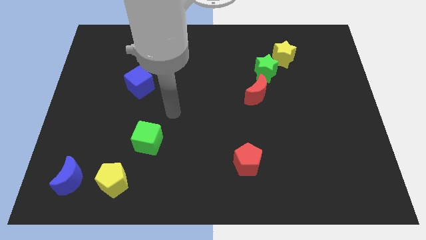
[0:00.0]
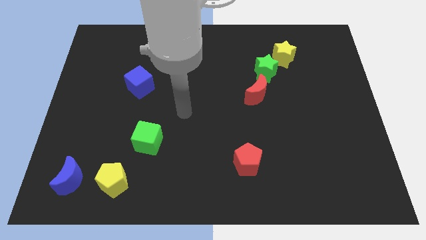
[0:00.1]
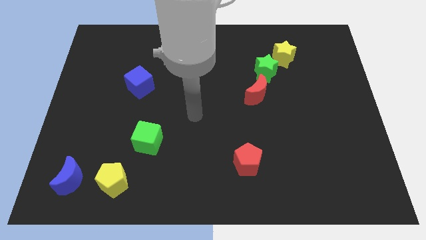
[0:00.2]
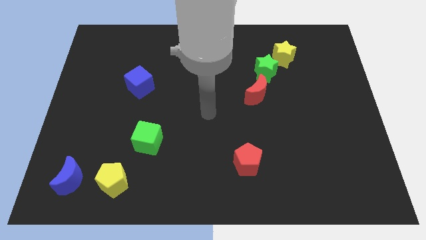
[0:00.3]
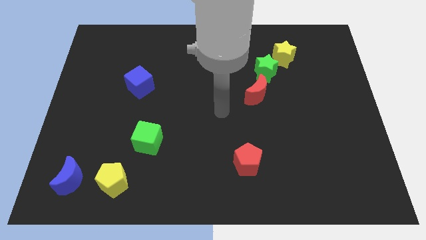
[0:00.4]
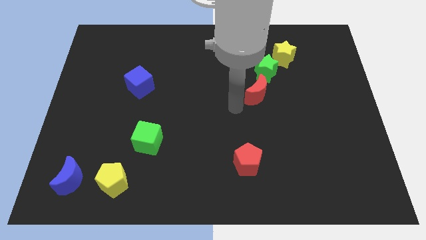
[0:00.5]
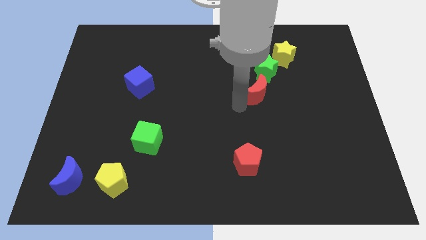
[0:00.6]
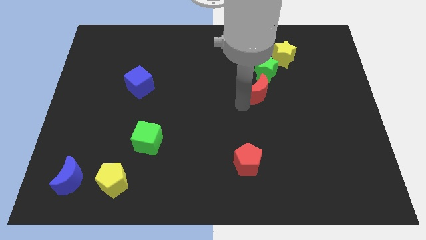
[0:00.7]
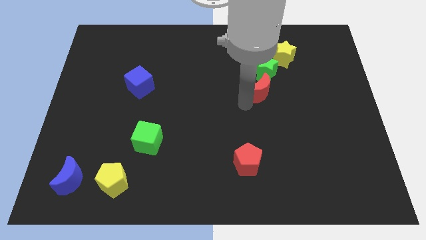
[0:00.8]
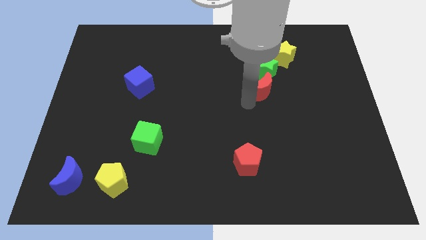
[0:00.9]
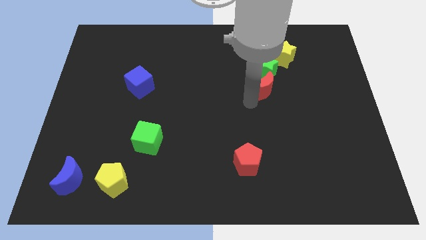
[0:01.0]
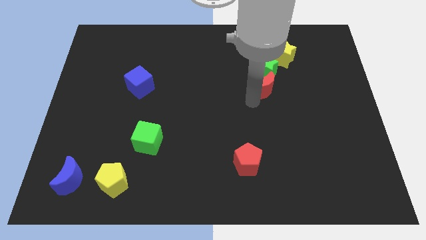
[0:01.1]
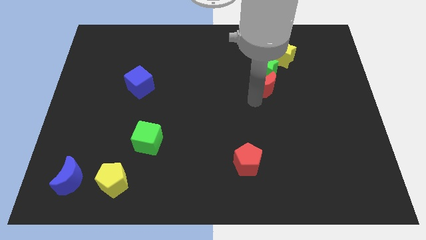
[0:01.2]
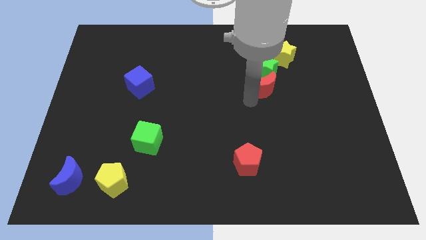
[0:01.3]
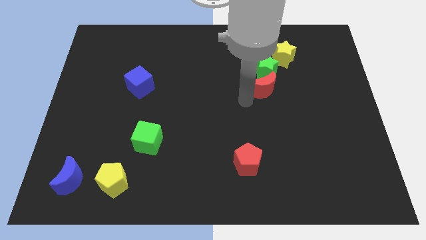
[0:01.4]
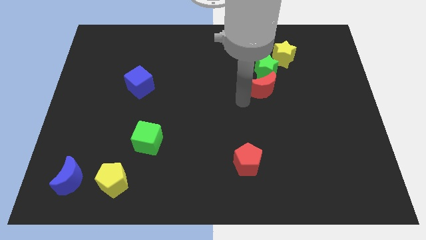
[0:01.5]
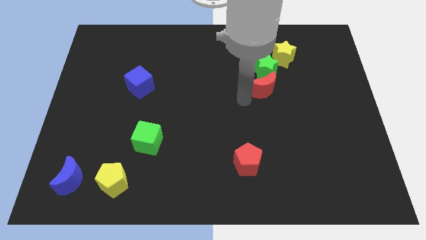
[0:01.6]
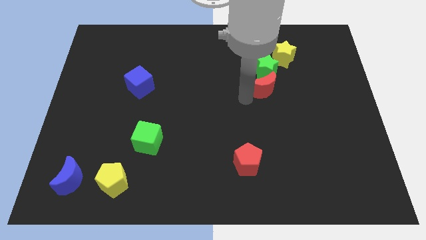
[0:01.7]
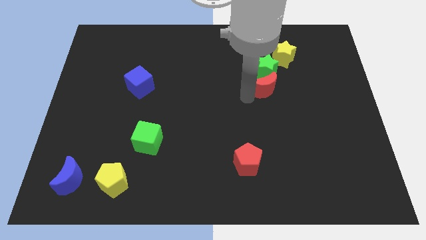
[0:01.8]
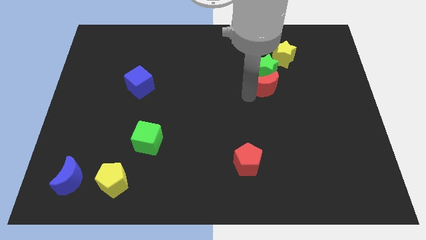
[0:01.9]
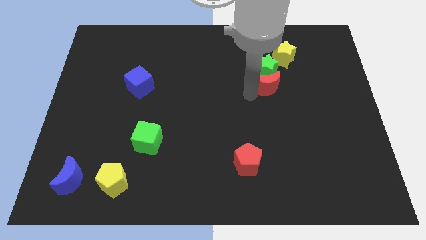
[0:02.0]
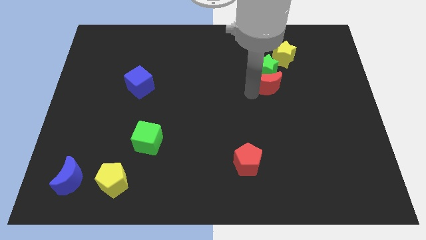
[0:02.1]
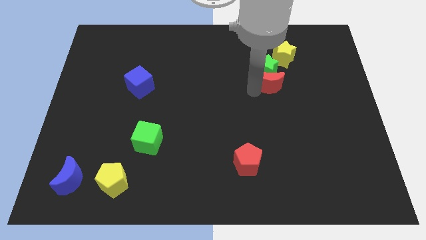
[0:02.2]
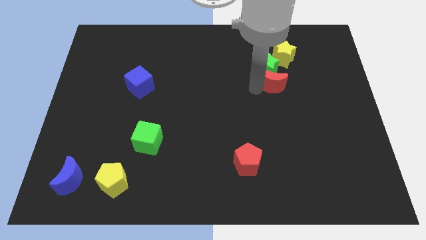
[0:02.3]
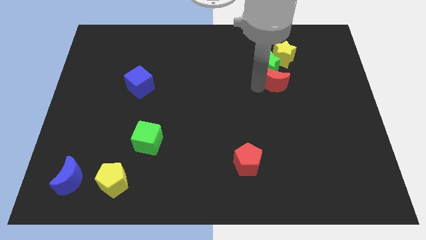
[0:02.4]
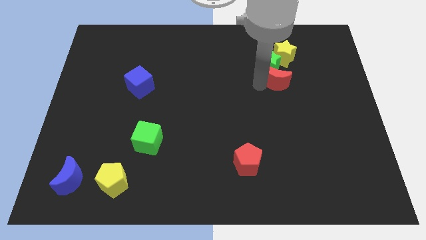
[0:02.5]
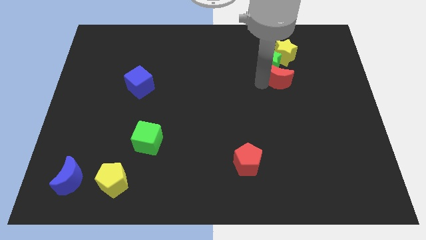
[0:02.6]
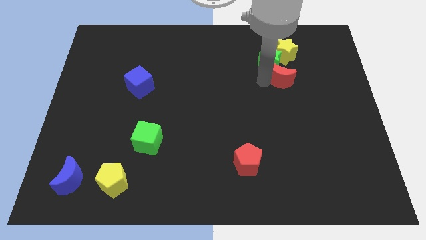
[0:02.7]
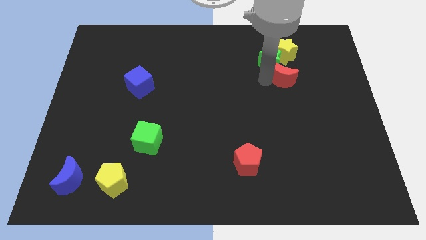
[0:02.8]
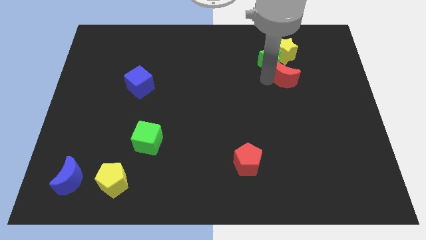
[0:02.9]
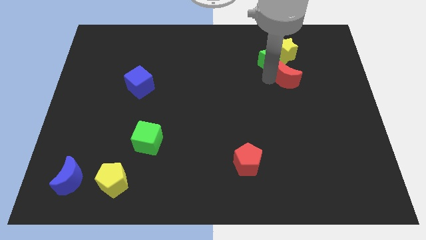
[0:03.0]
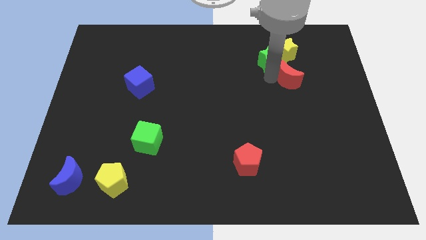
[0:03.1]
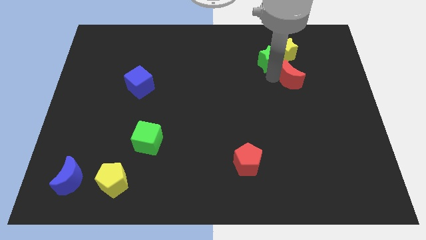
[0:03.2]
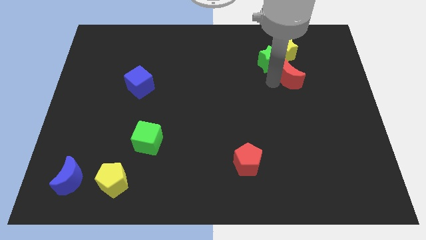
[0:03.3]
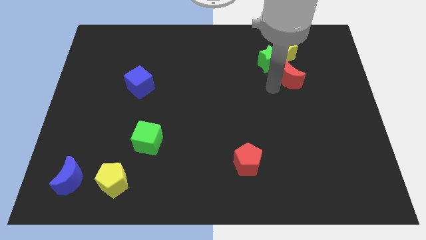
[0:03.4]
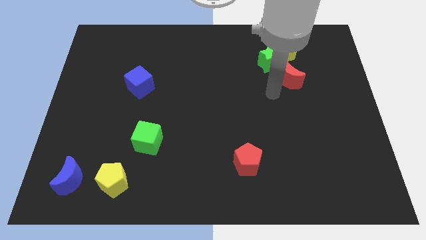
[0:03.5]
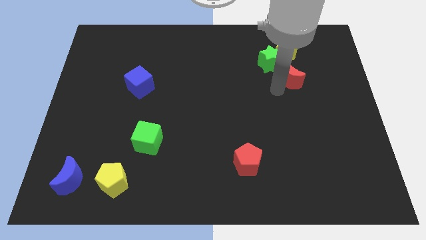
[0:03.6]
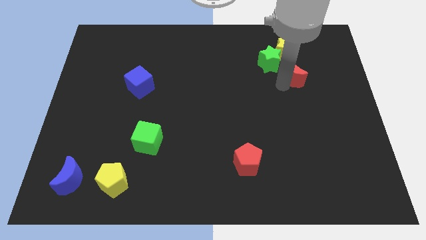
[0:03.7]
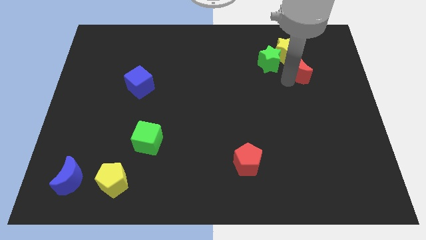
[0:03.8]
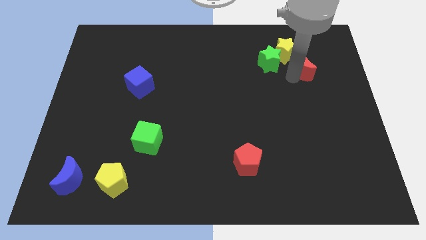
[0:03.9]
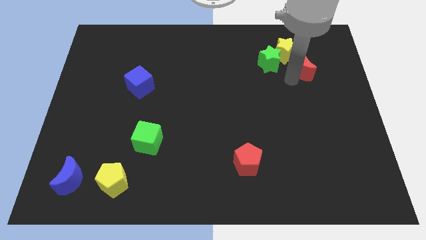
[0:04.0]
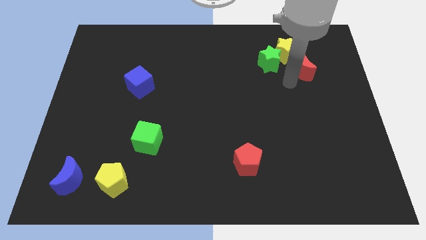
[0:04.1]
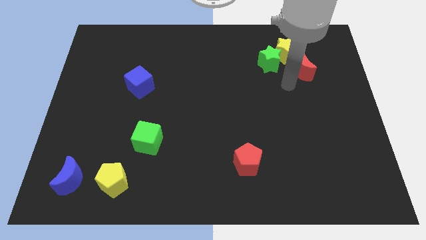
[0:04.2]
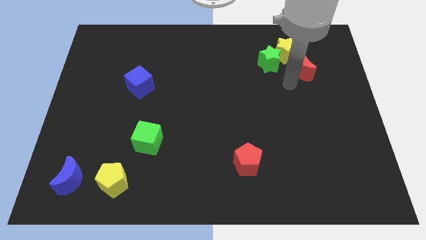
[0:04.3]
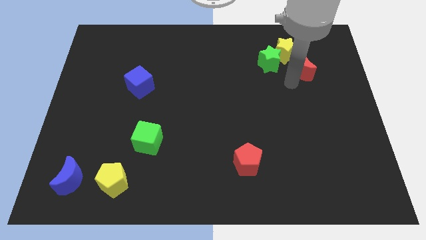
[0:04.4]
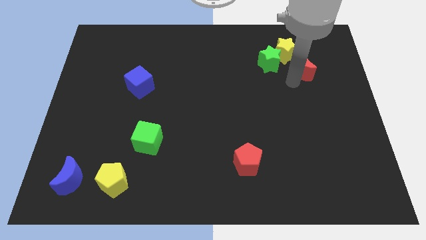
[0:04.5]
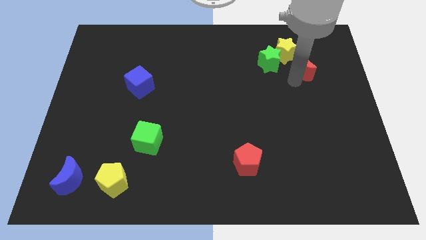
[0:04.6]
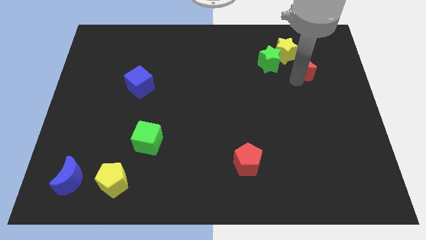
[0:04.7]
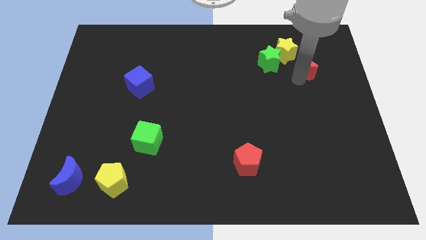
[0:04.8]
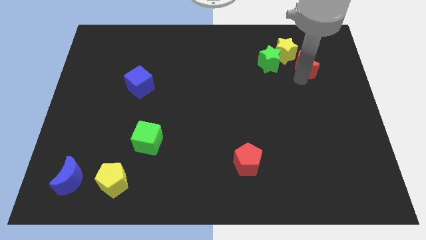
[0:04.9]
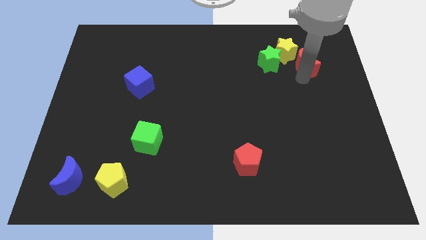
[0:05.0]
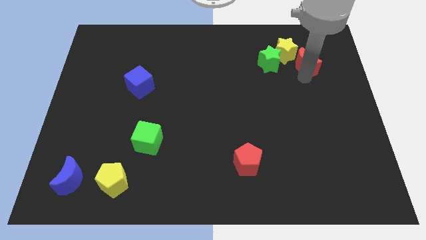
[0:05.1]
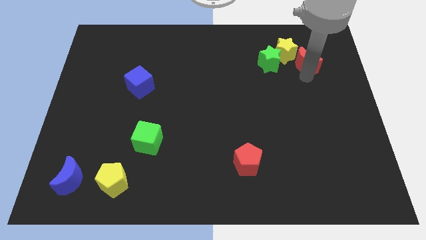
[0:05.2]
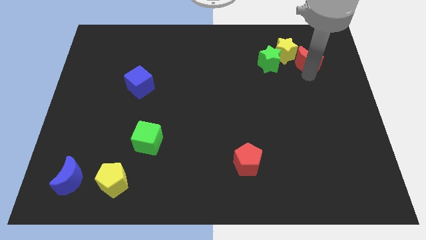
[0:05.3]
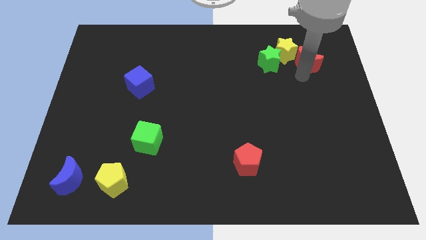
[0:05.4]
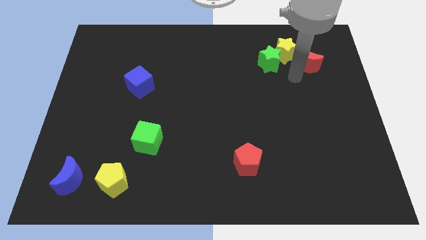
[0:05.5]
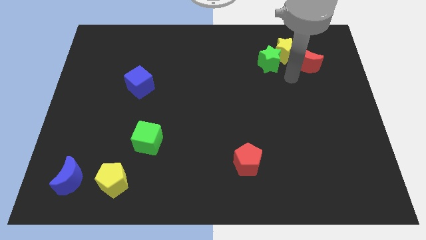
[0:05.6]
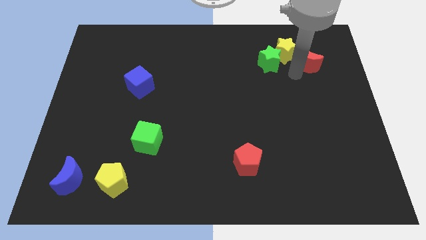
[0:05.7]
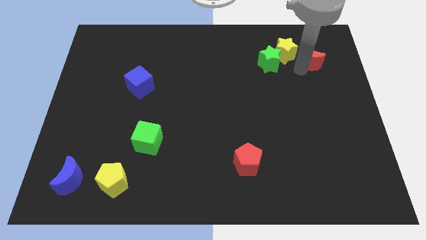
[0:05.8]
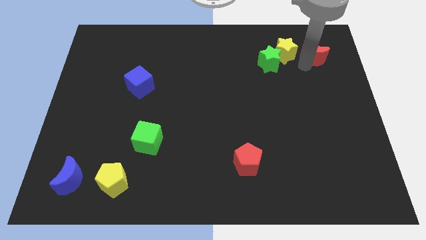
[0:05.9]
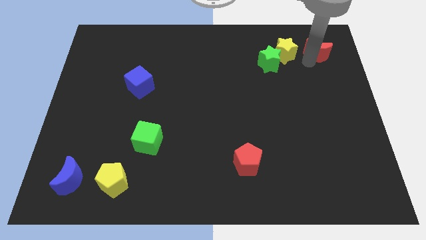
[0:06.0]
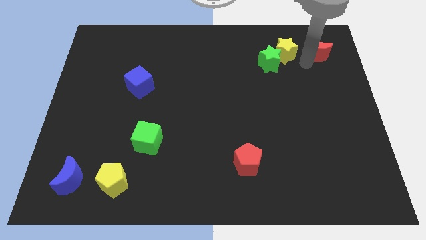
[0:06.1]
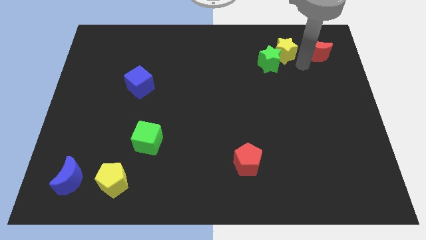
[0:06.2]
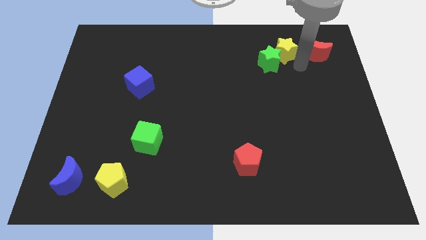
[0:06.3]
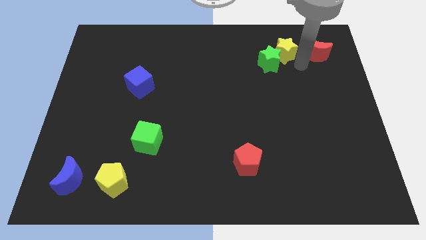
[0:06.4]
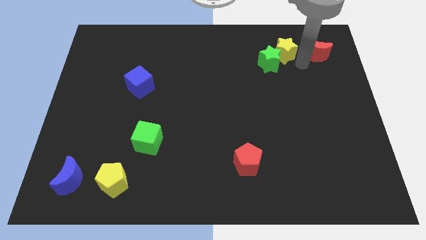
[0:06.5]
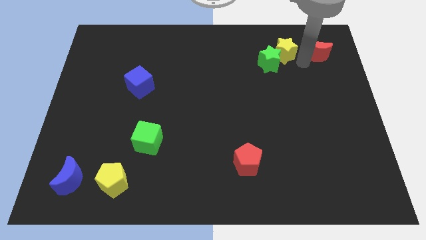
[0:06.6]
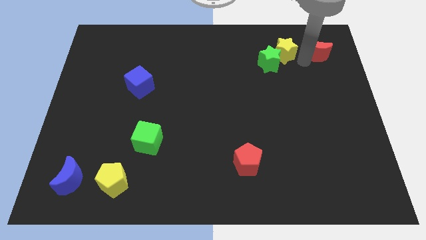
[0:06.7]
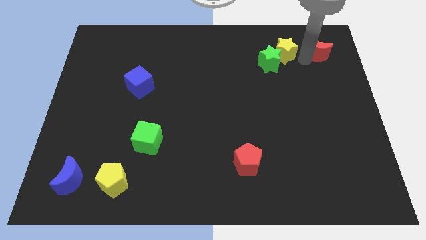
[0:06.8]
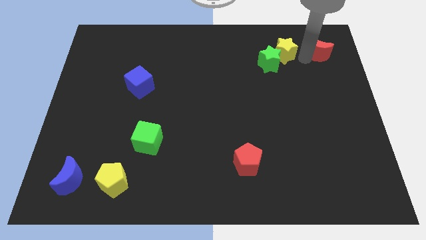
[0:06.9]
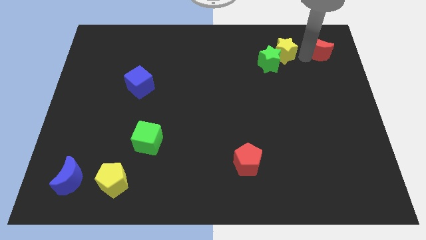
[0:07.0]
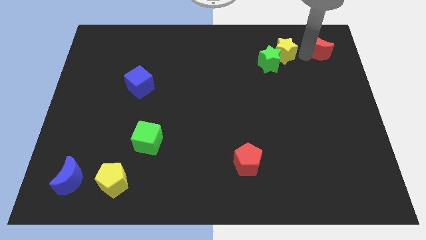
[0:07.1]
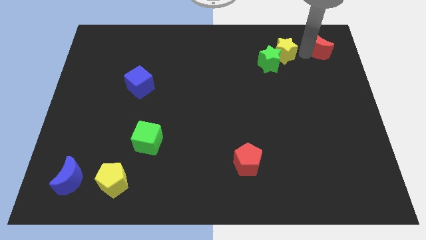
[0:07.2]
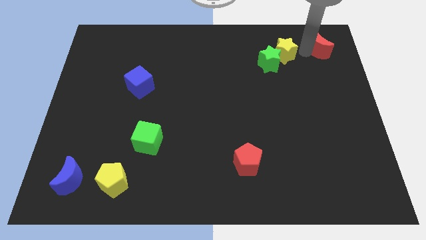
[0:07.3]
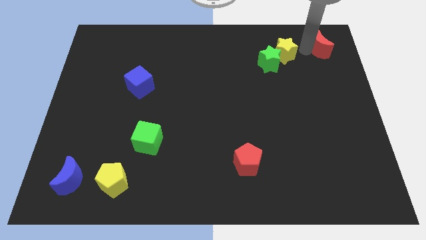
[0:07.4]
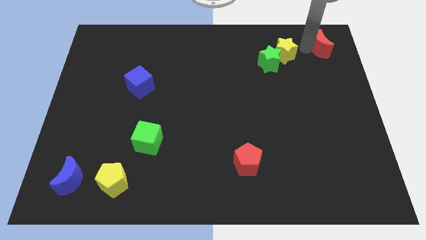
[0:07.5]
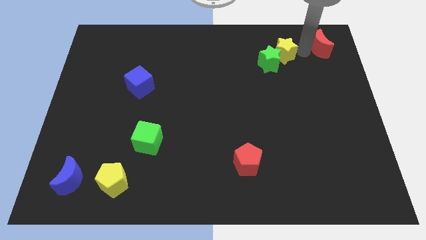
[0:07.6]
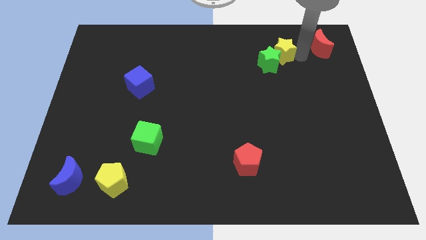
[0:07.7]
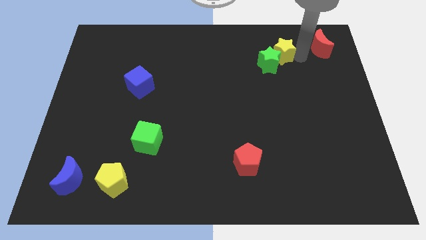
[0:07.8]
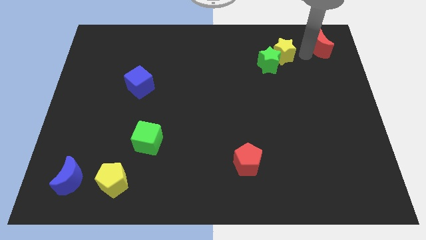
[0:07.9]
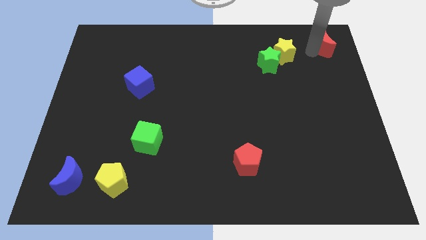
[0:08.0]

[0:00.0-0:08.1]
push the red moon to the top right corner
